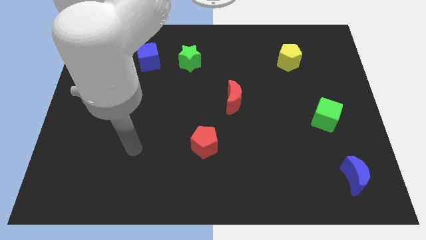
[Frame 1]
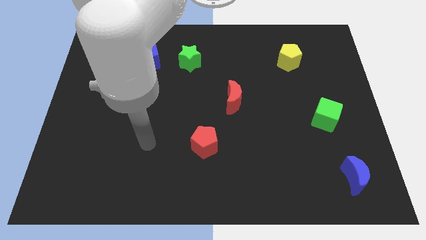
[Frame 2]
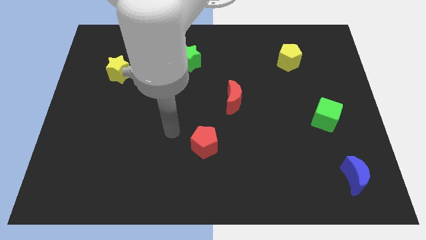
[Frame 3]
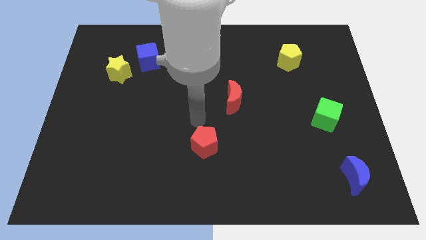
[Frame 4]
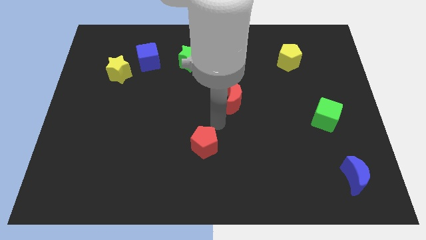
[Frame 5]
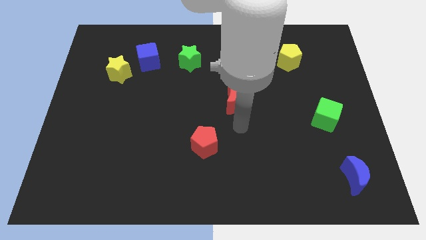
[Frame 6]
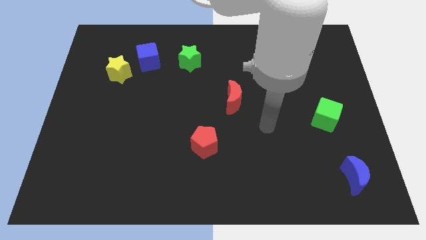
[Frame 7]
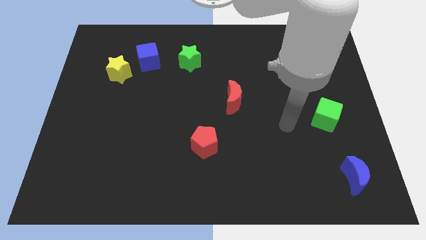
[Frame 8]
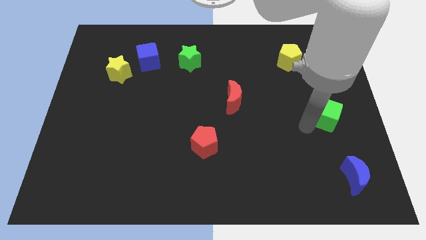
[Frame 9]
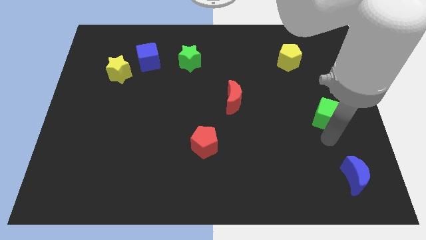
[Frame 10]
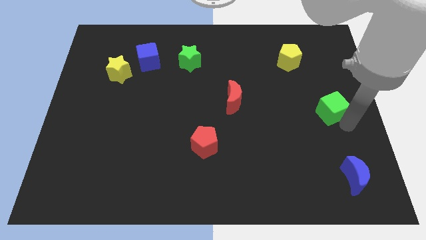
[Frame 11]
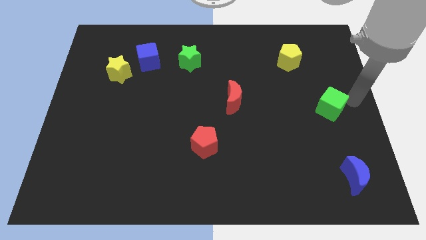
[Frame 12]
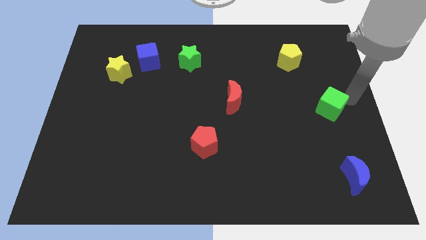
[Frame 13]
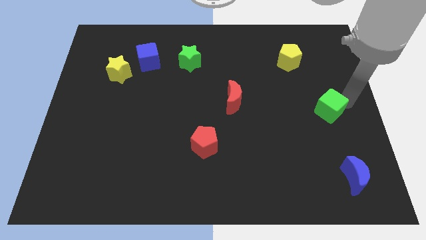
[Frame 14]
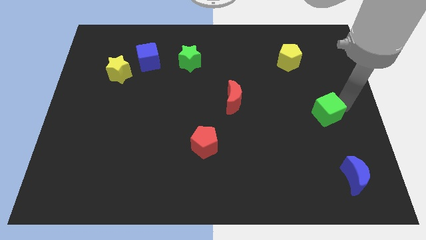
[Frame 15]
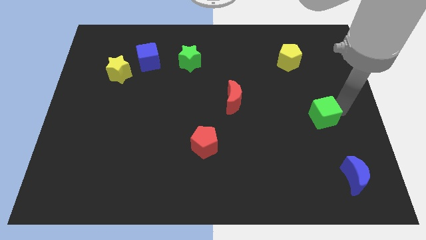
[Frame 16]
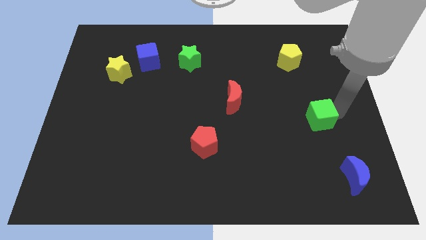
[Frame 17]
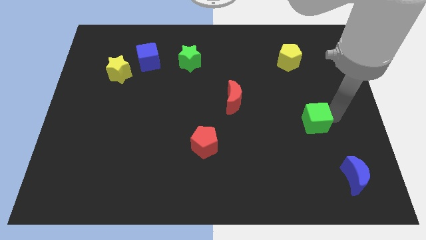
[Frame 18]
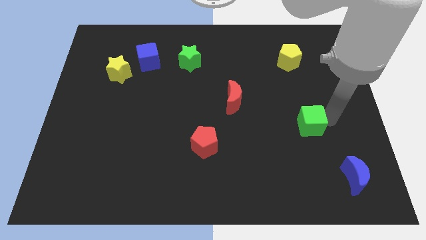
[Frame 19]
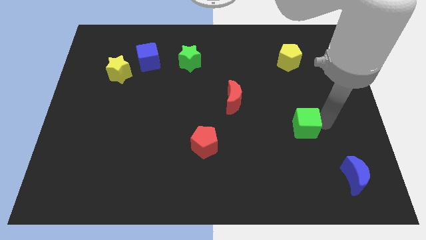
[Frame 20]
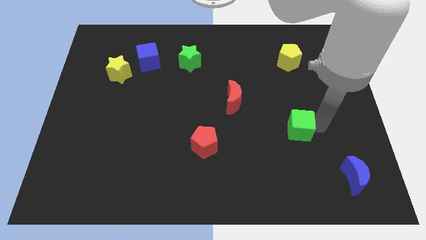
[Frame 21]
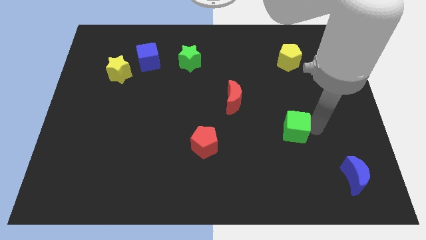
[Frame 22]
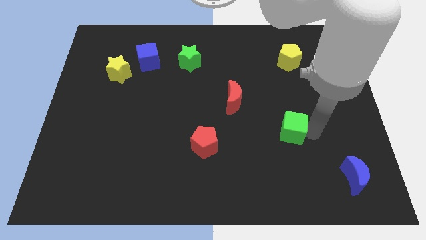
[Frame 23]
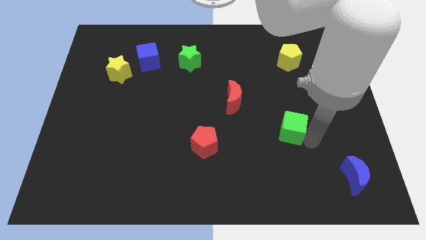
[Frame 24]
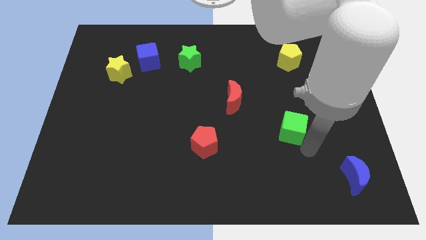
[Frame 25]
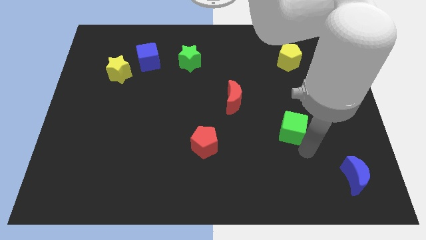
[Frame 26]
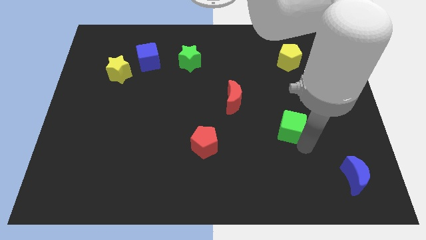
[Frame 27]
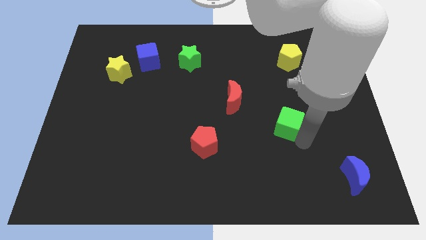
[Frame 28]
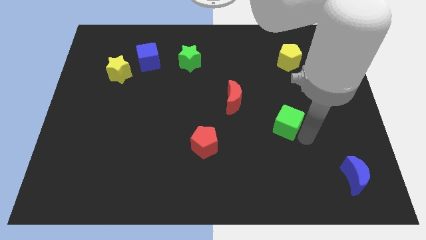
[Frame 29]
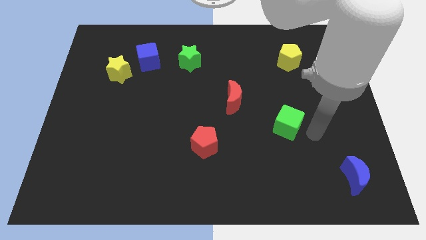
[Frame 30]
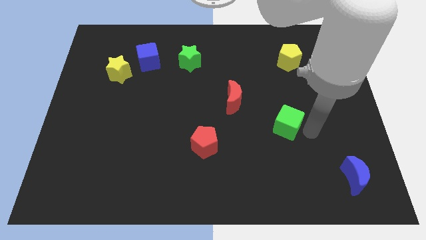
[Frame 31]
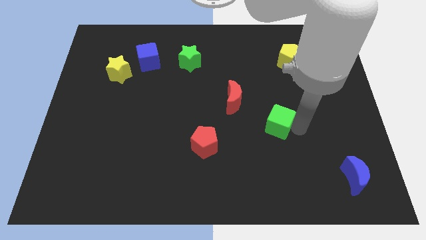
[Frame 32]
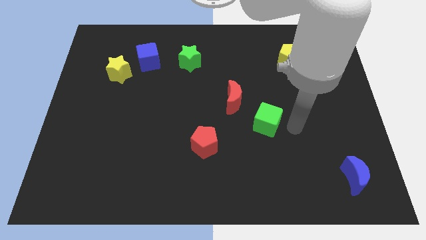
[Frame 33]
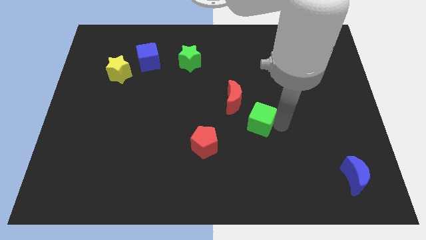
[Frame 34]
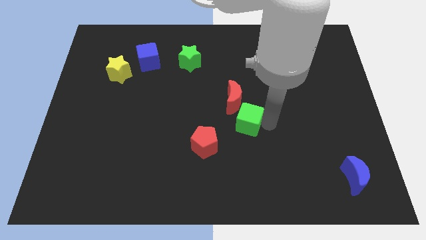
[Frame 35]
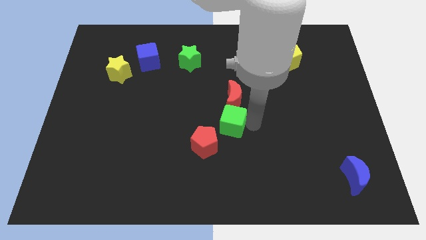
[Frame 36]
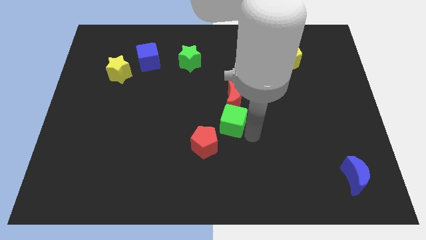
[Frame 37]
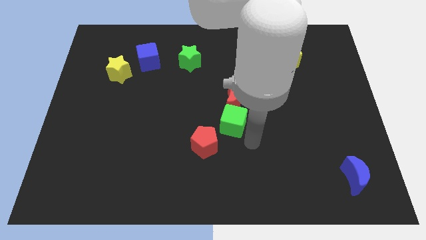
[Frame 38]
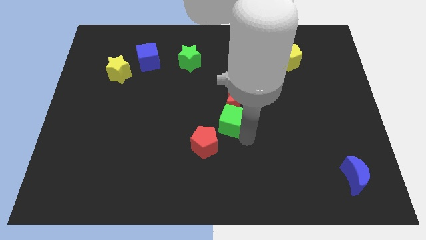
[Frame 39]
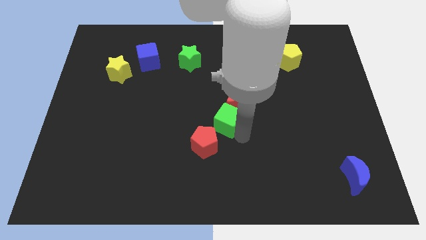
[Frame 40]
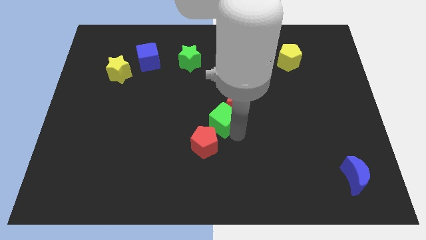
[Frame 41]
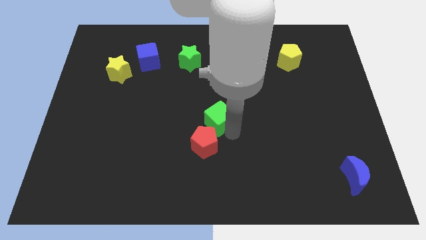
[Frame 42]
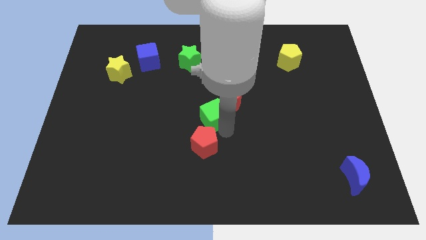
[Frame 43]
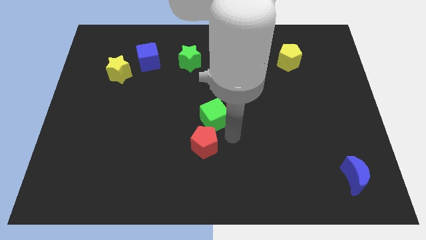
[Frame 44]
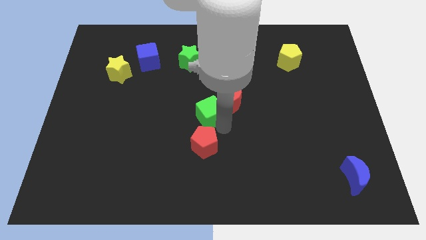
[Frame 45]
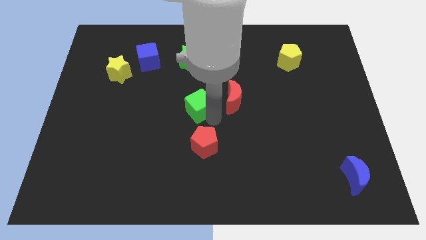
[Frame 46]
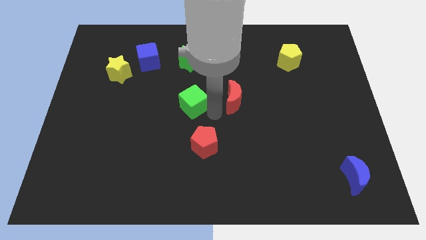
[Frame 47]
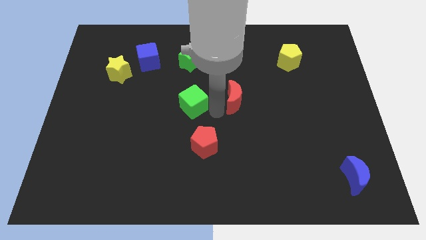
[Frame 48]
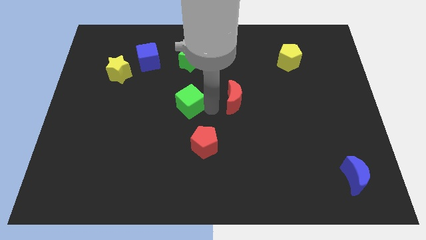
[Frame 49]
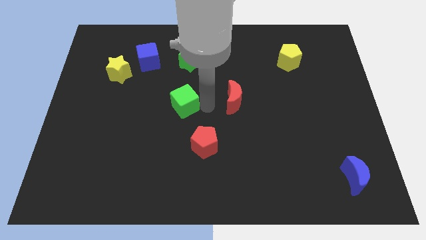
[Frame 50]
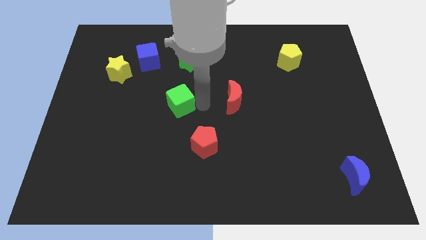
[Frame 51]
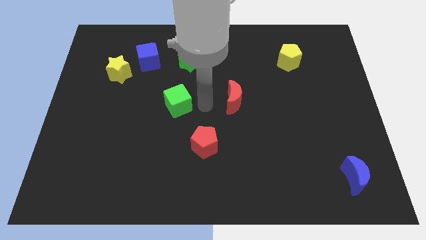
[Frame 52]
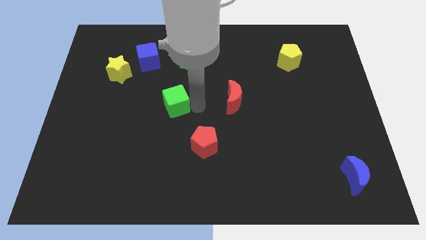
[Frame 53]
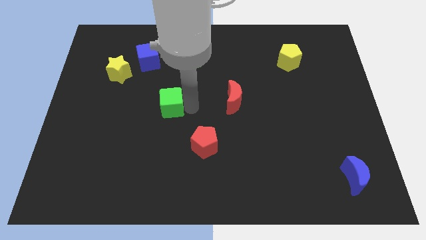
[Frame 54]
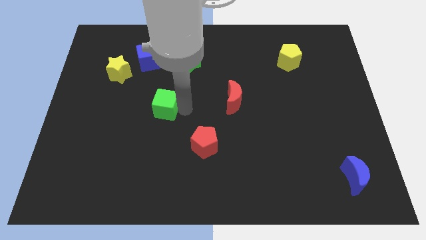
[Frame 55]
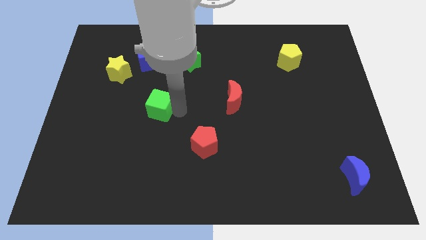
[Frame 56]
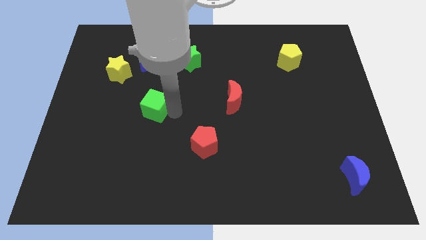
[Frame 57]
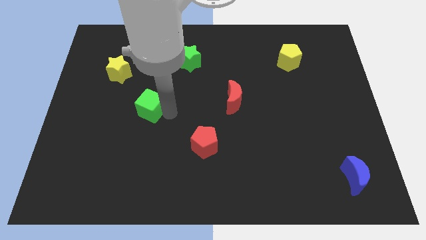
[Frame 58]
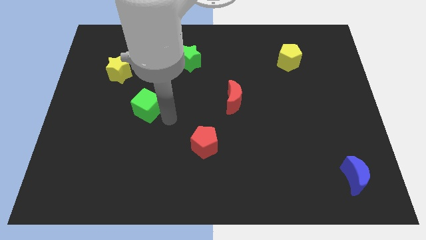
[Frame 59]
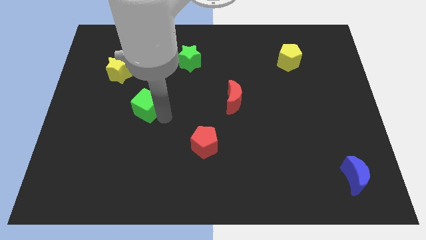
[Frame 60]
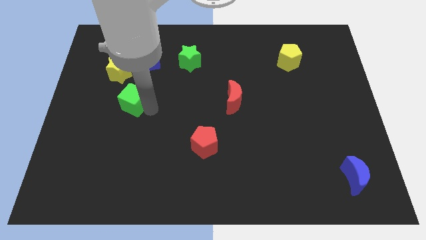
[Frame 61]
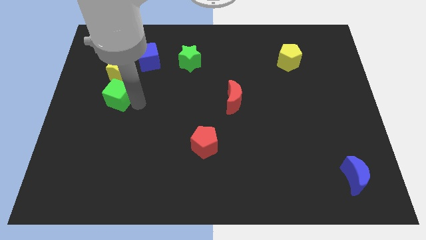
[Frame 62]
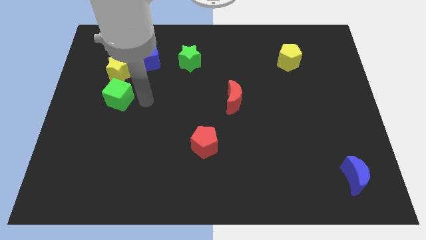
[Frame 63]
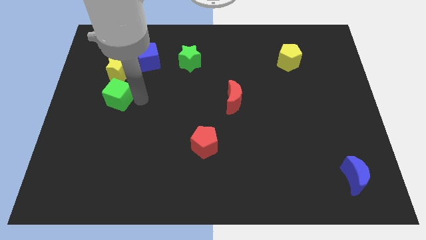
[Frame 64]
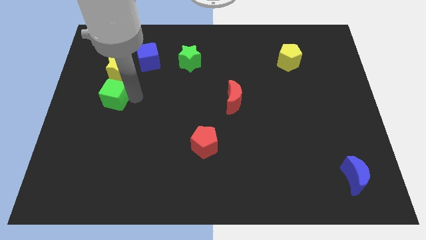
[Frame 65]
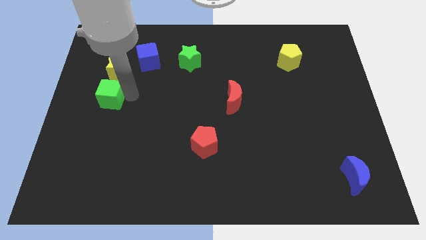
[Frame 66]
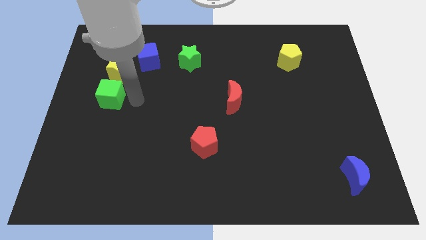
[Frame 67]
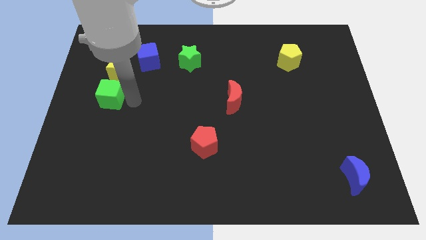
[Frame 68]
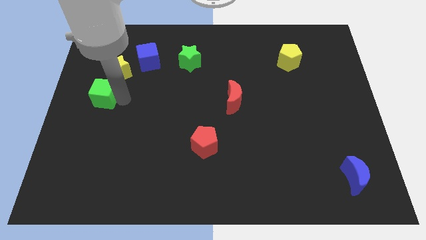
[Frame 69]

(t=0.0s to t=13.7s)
put the green cube to the left side
